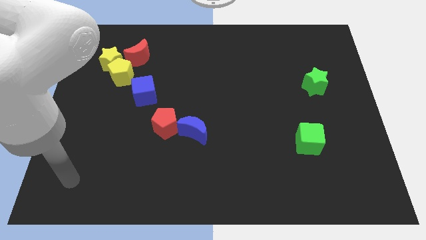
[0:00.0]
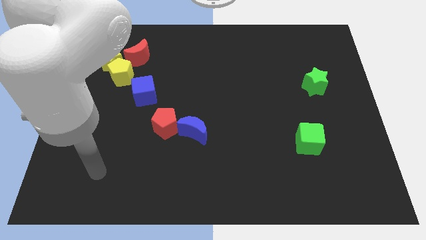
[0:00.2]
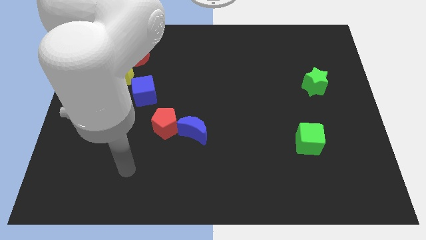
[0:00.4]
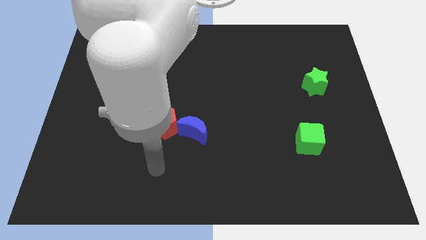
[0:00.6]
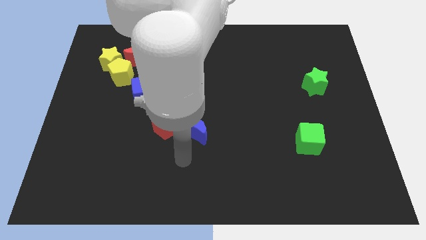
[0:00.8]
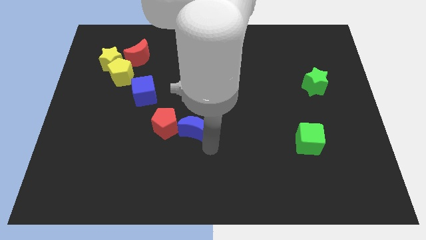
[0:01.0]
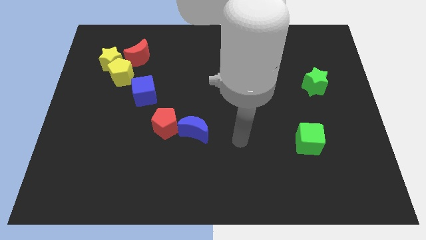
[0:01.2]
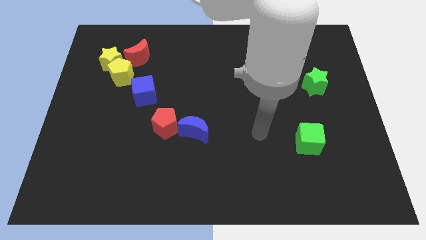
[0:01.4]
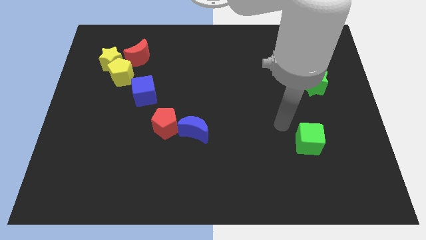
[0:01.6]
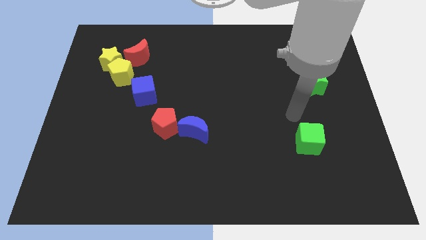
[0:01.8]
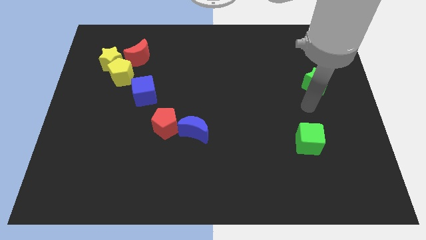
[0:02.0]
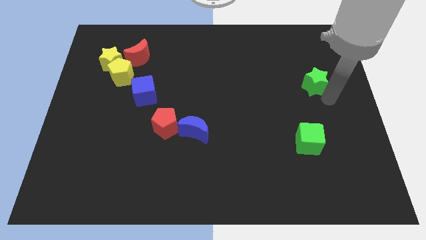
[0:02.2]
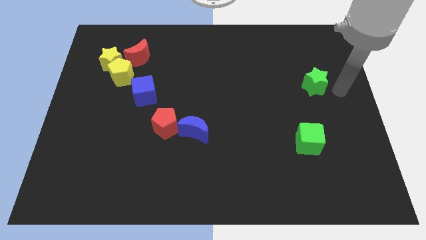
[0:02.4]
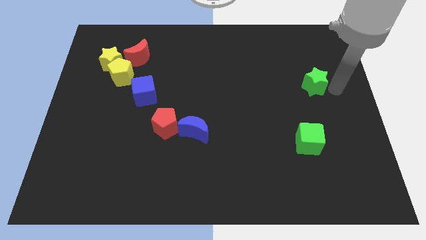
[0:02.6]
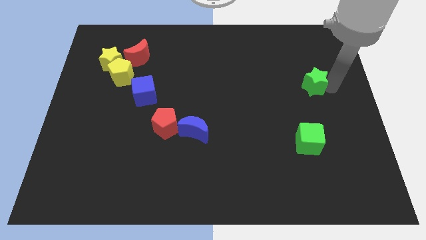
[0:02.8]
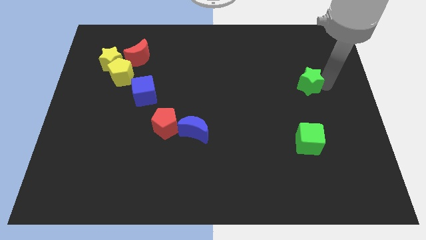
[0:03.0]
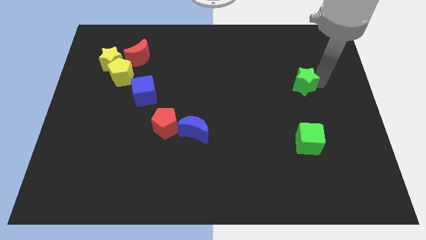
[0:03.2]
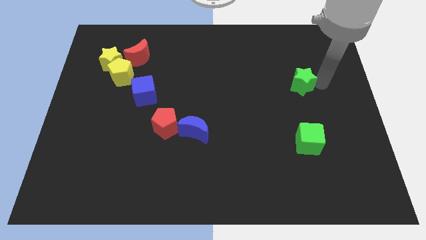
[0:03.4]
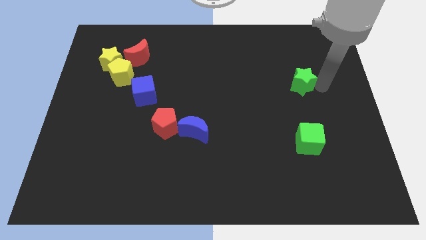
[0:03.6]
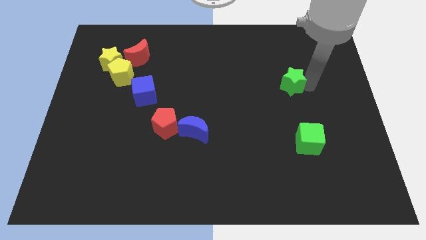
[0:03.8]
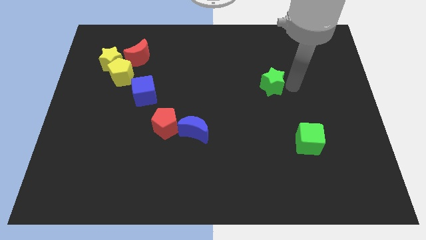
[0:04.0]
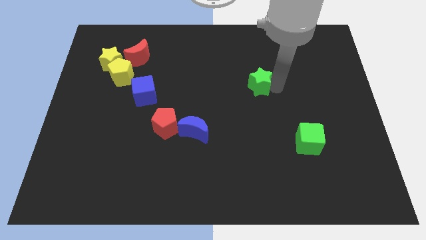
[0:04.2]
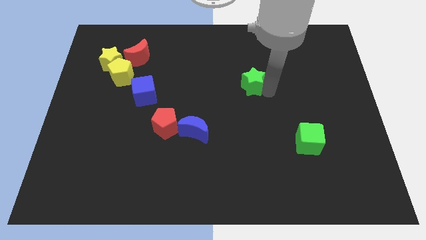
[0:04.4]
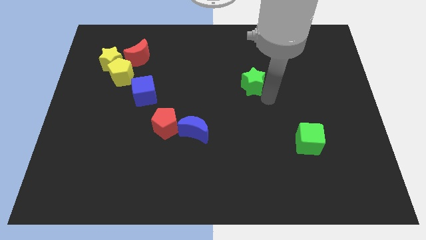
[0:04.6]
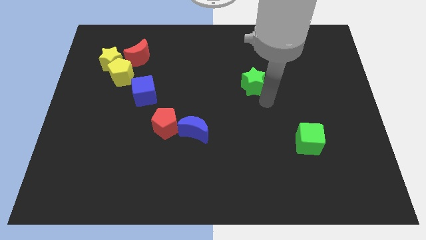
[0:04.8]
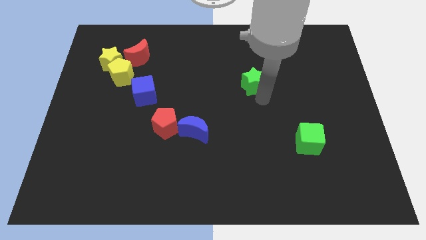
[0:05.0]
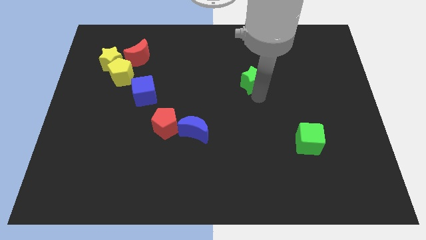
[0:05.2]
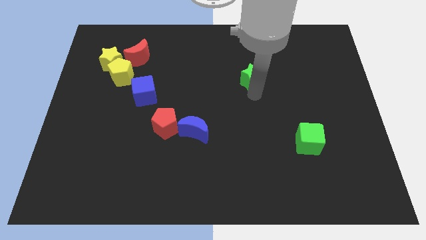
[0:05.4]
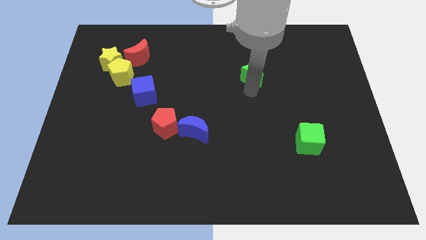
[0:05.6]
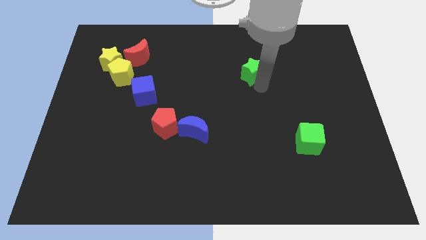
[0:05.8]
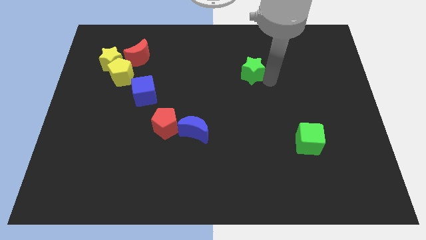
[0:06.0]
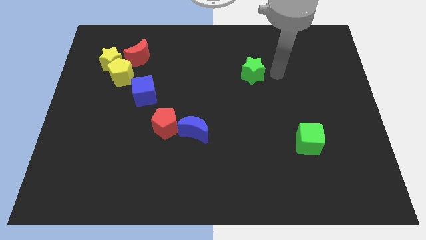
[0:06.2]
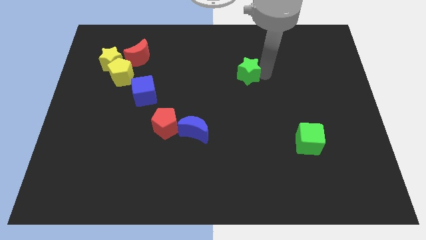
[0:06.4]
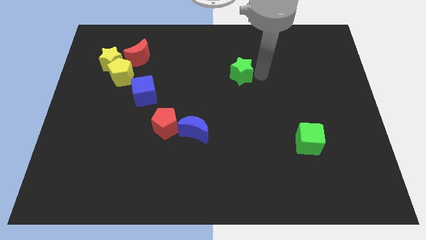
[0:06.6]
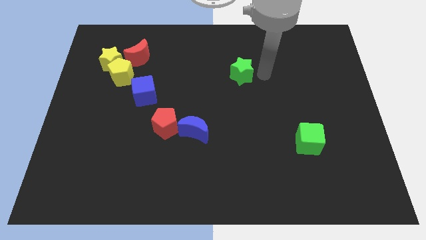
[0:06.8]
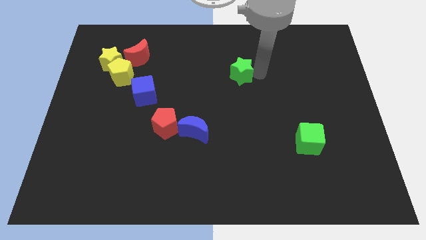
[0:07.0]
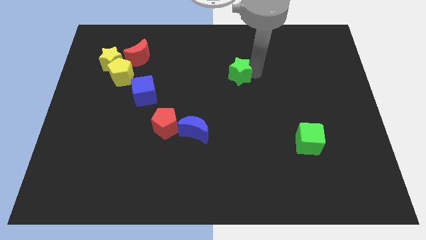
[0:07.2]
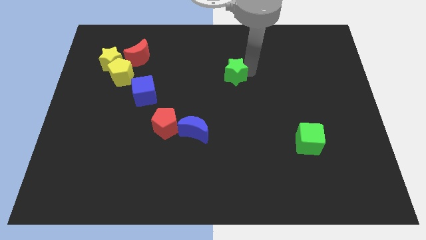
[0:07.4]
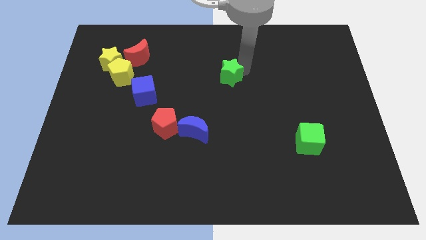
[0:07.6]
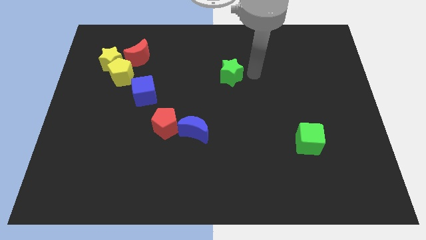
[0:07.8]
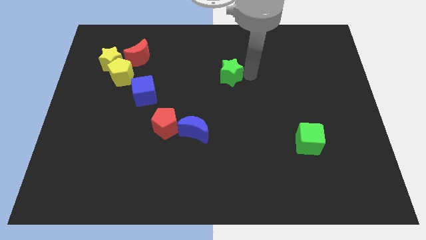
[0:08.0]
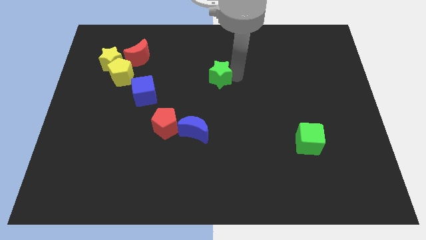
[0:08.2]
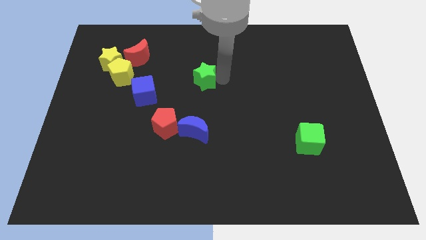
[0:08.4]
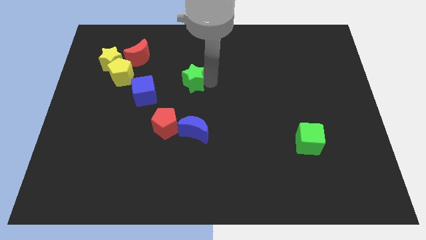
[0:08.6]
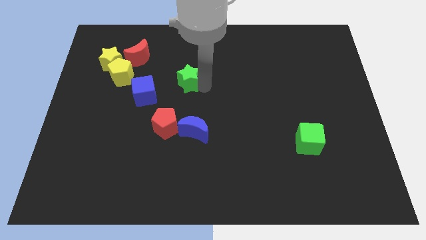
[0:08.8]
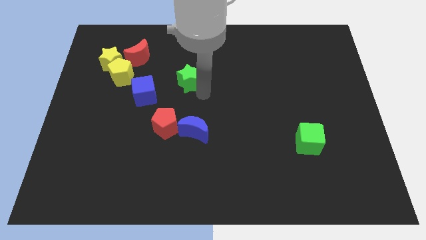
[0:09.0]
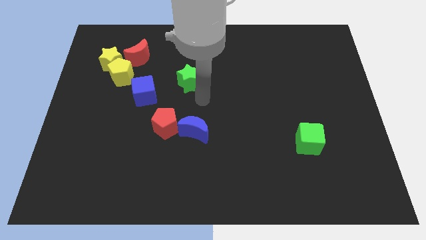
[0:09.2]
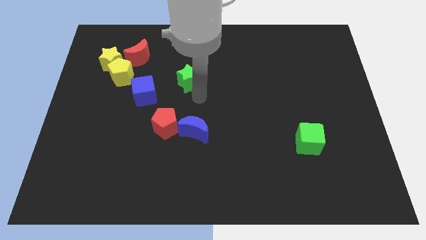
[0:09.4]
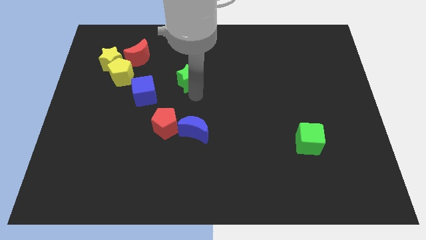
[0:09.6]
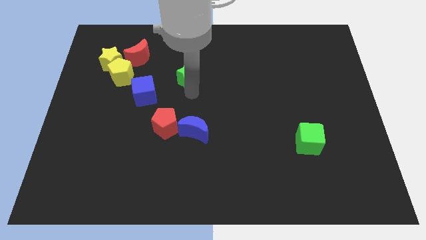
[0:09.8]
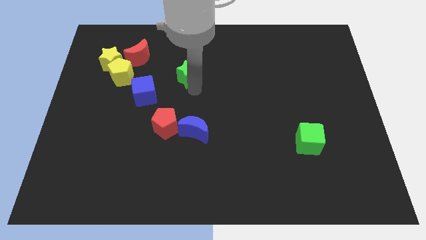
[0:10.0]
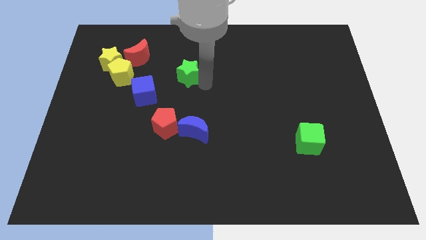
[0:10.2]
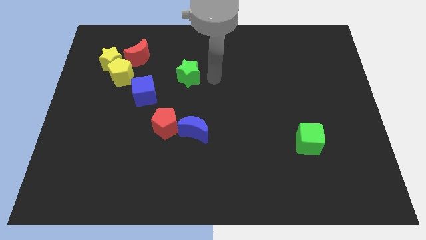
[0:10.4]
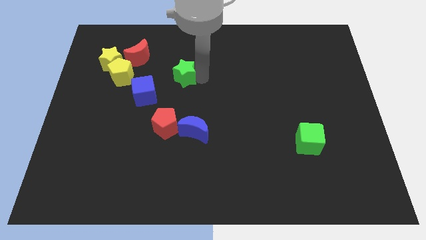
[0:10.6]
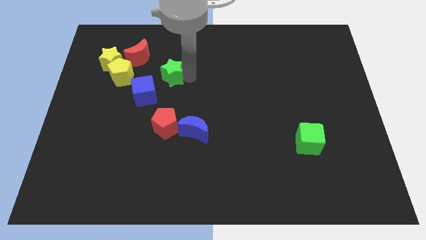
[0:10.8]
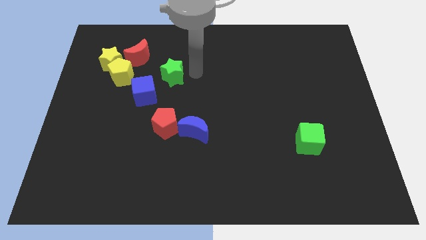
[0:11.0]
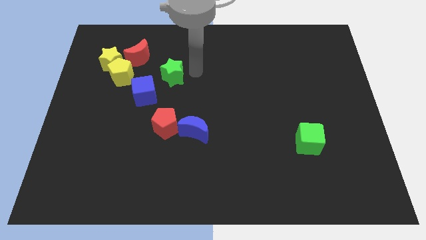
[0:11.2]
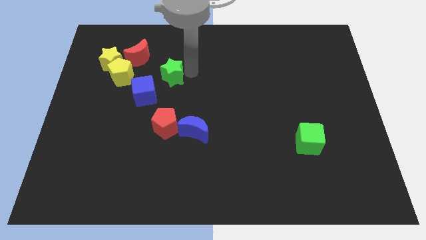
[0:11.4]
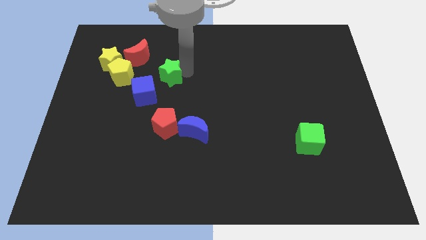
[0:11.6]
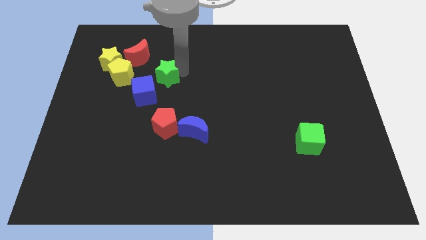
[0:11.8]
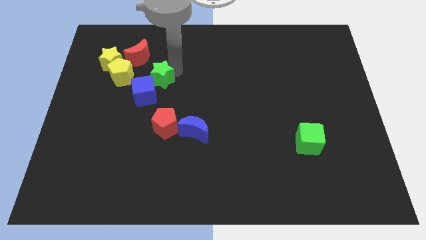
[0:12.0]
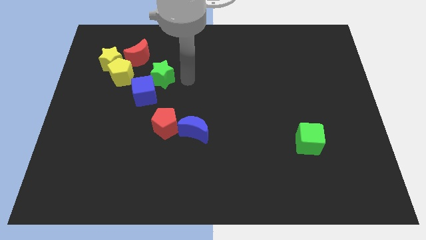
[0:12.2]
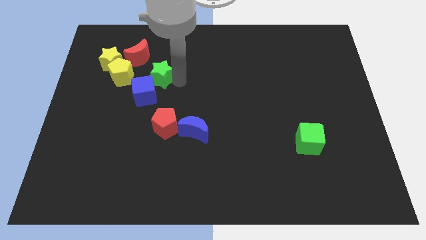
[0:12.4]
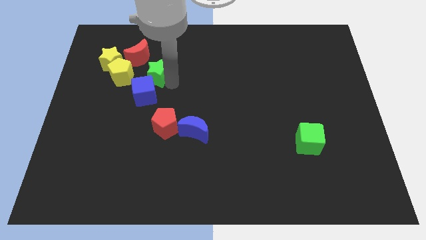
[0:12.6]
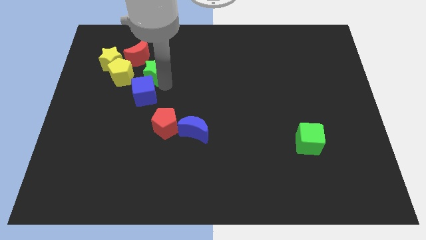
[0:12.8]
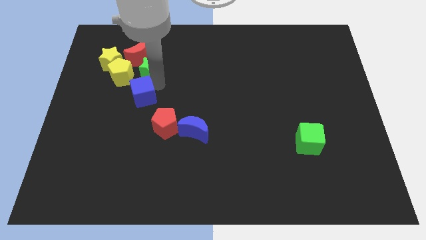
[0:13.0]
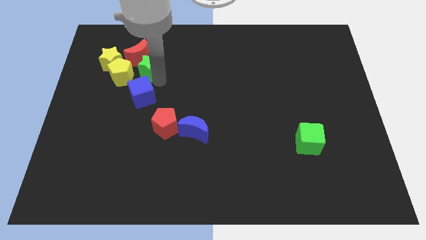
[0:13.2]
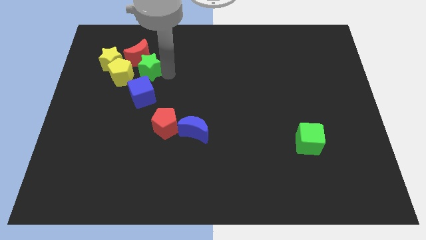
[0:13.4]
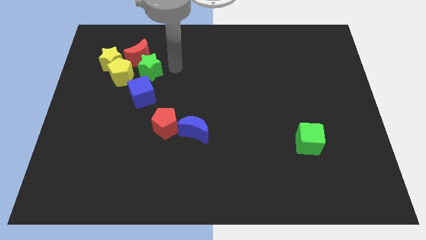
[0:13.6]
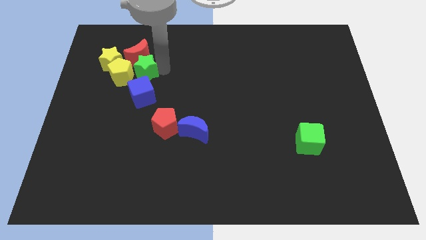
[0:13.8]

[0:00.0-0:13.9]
move the green star towards the yellow pentagon

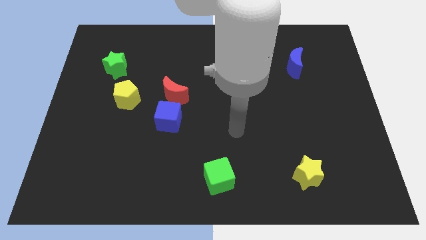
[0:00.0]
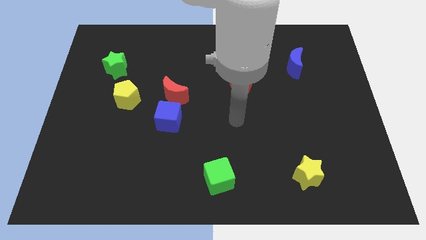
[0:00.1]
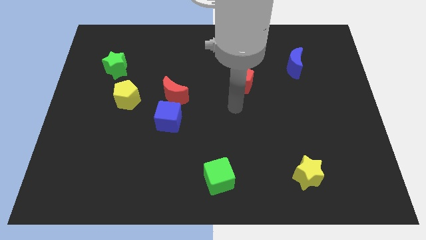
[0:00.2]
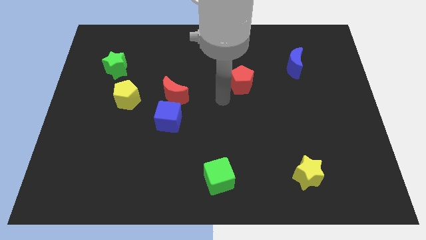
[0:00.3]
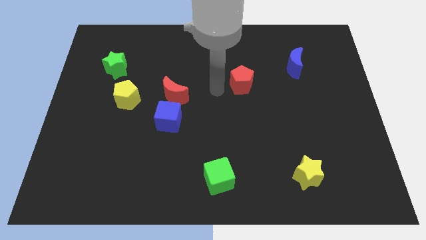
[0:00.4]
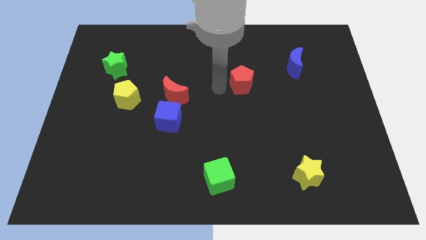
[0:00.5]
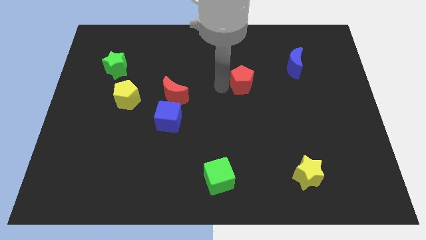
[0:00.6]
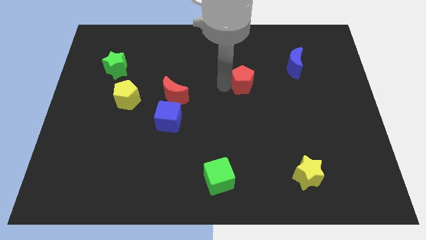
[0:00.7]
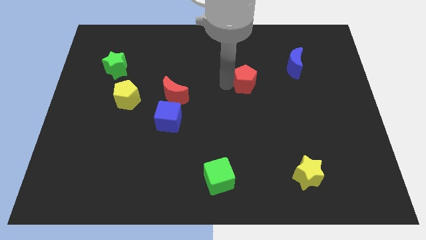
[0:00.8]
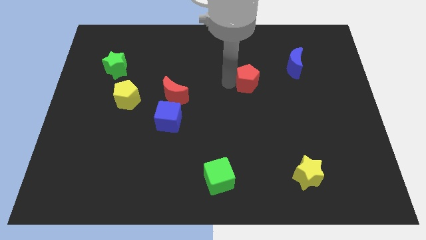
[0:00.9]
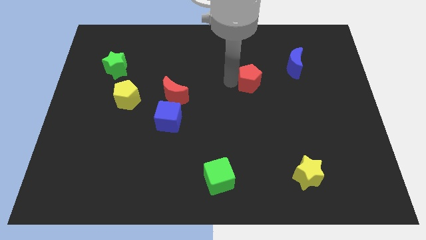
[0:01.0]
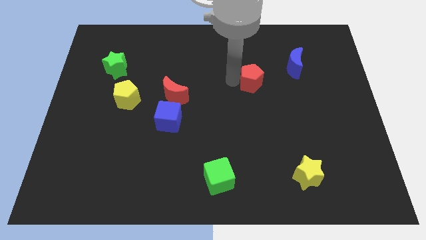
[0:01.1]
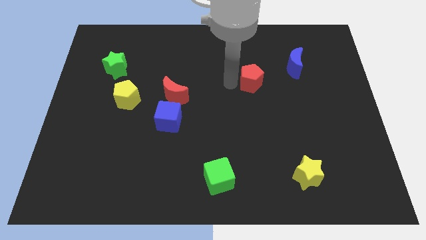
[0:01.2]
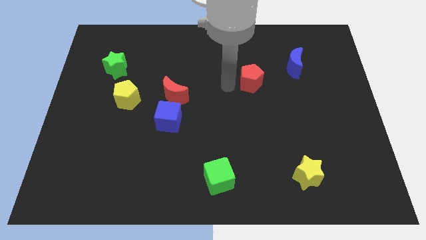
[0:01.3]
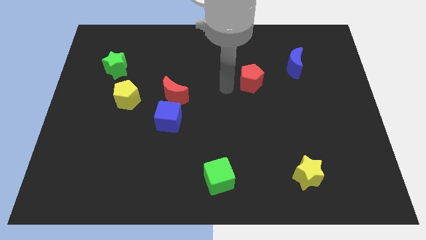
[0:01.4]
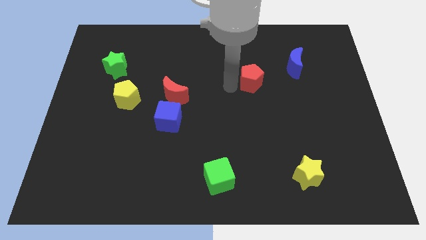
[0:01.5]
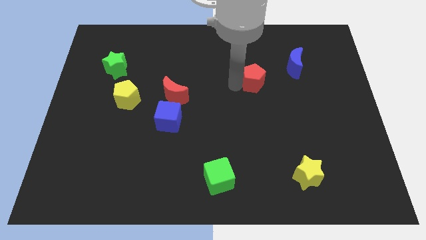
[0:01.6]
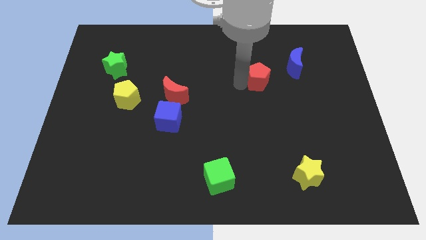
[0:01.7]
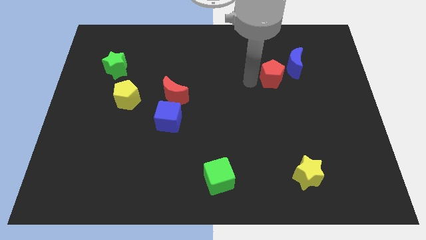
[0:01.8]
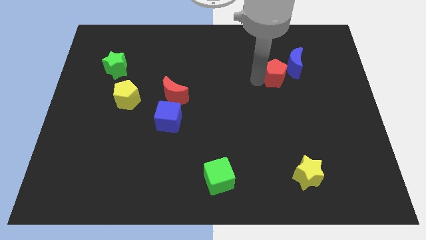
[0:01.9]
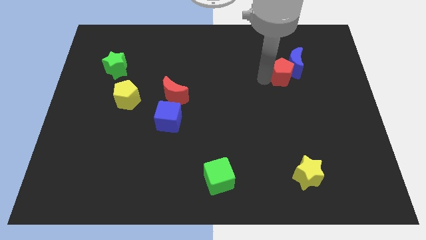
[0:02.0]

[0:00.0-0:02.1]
move the red pentagon towards the blue moon
